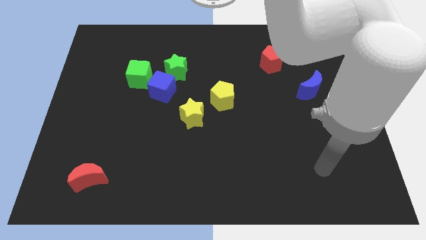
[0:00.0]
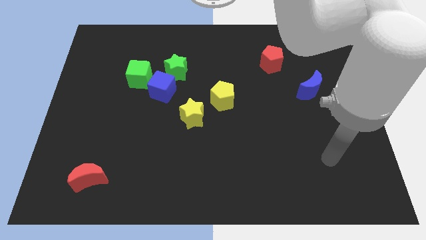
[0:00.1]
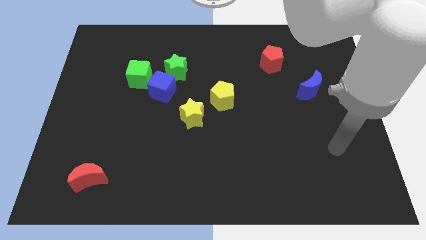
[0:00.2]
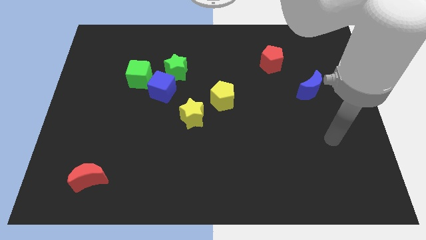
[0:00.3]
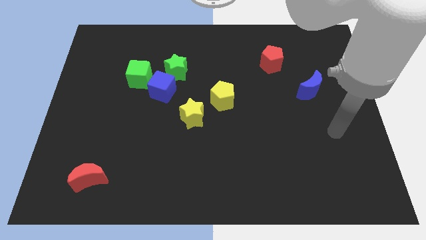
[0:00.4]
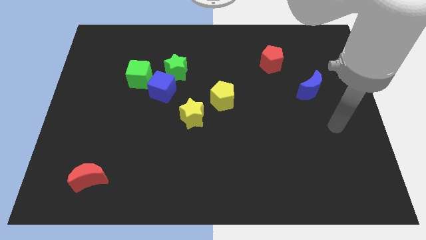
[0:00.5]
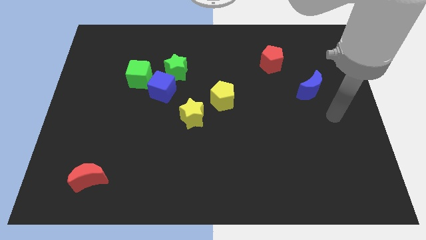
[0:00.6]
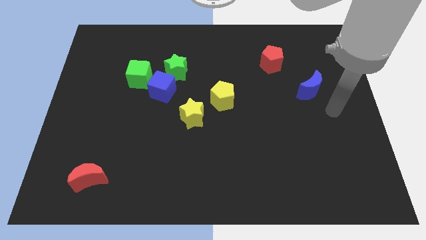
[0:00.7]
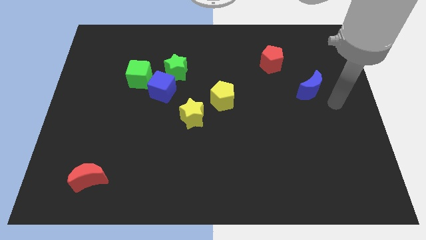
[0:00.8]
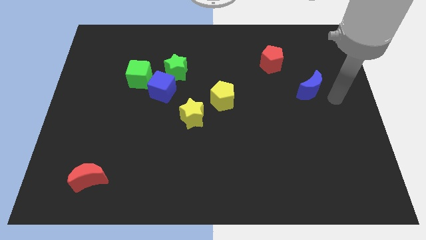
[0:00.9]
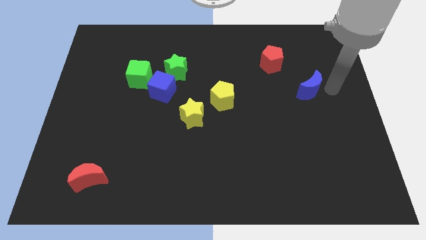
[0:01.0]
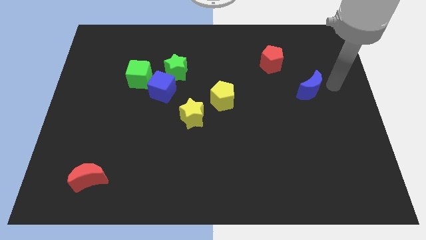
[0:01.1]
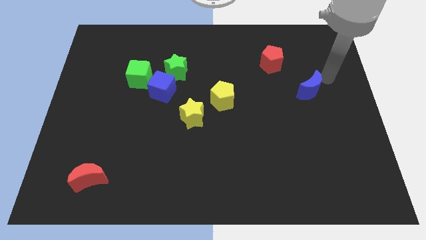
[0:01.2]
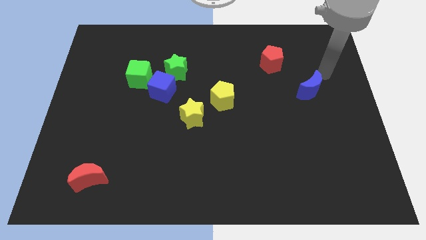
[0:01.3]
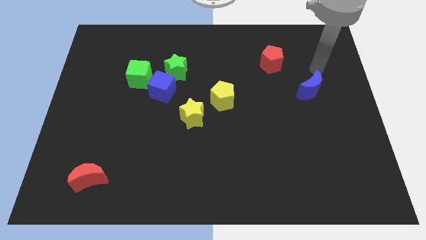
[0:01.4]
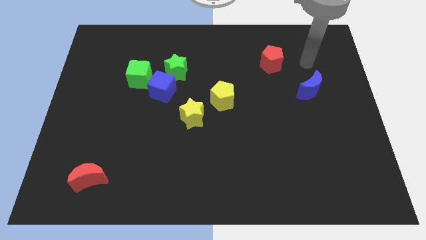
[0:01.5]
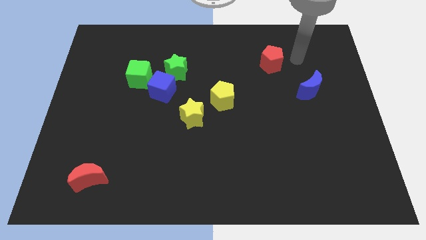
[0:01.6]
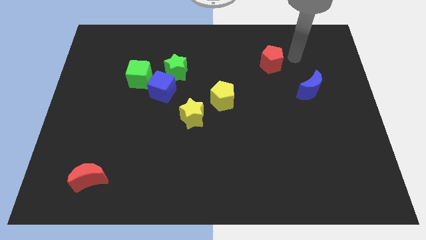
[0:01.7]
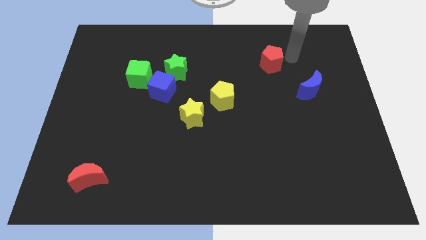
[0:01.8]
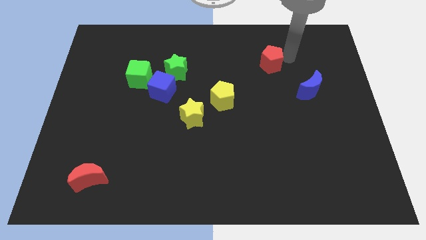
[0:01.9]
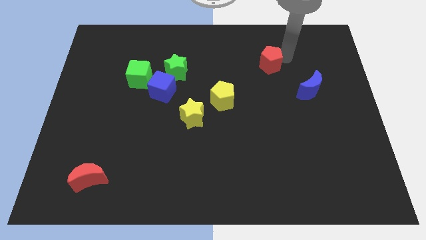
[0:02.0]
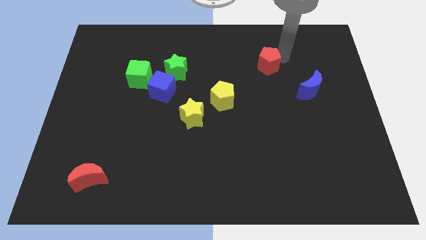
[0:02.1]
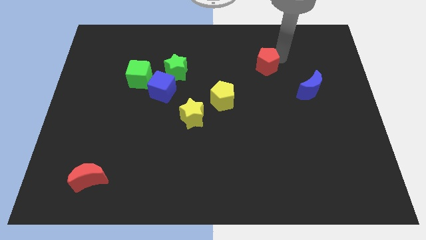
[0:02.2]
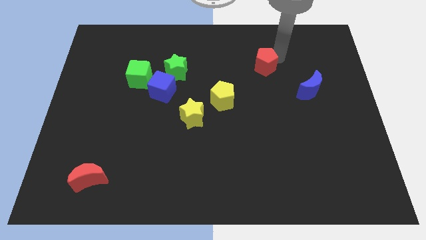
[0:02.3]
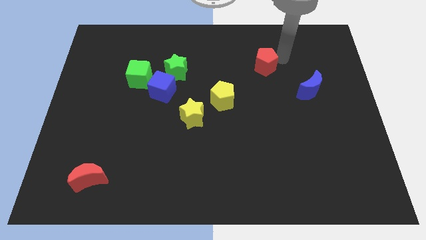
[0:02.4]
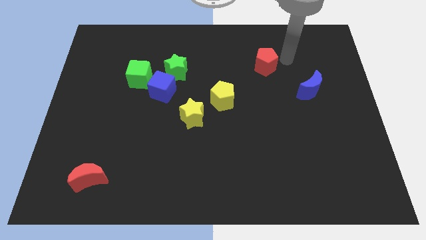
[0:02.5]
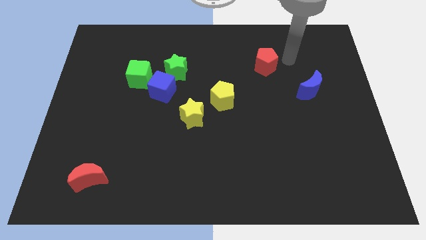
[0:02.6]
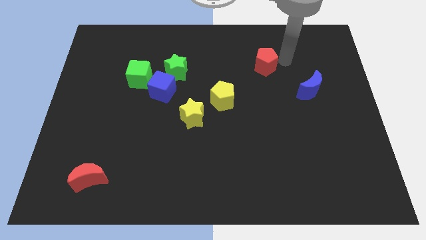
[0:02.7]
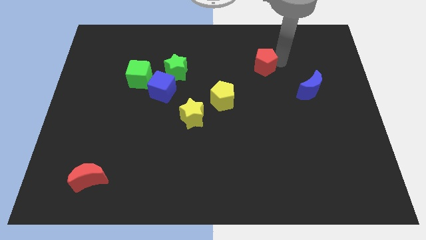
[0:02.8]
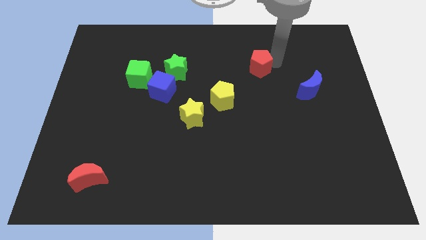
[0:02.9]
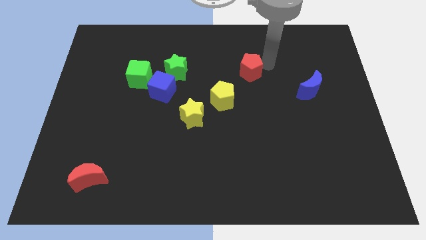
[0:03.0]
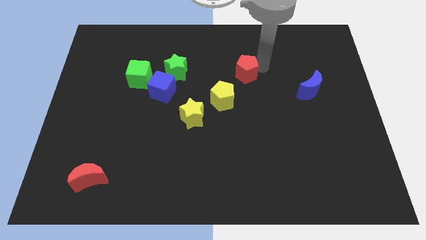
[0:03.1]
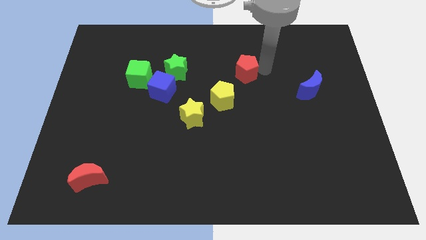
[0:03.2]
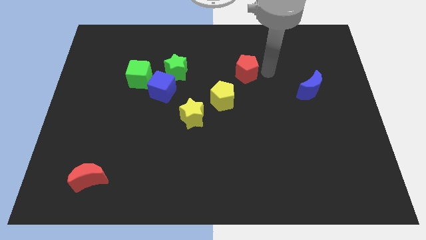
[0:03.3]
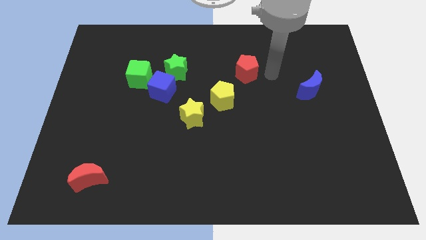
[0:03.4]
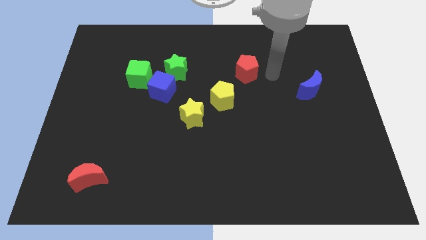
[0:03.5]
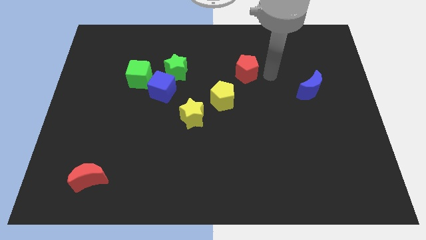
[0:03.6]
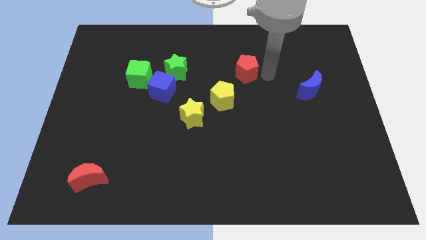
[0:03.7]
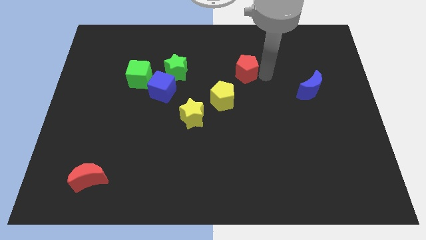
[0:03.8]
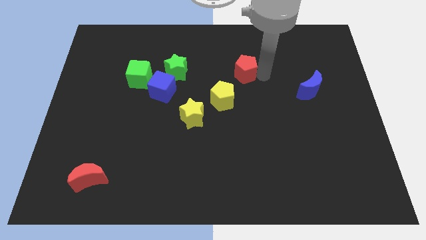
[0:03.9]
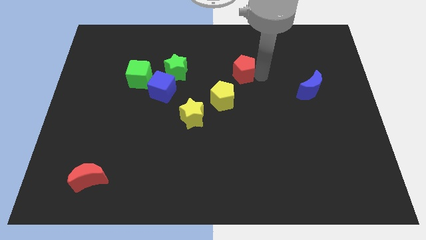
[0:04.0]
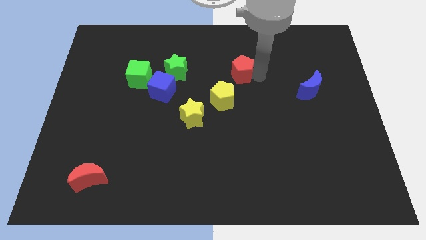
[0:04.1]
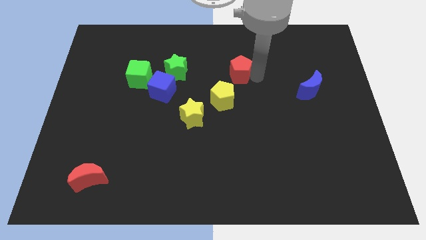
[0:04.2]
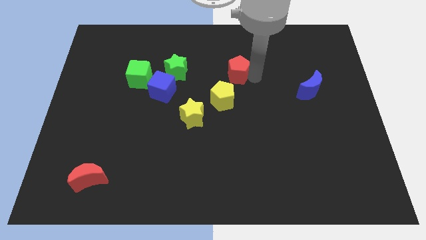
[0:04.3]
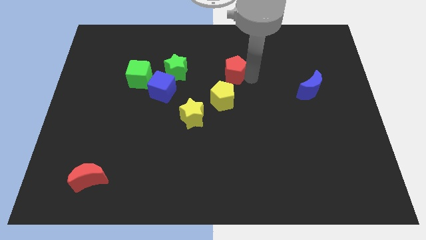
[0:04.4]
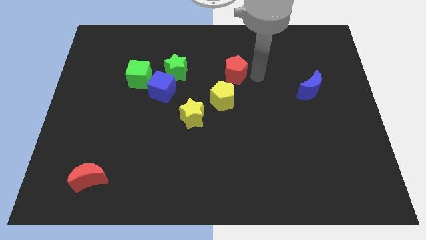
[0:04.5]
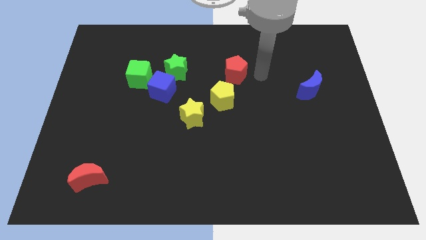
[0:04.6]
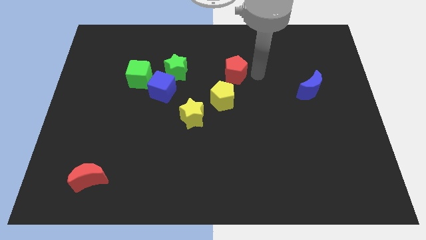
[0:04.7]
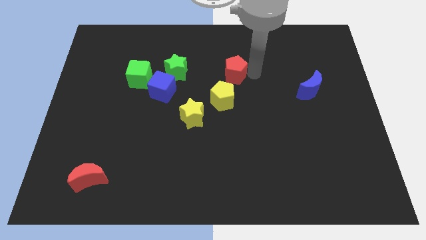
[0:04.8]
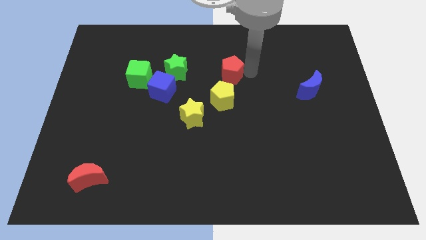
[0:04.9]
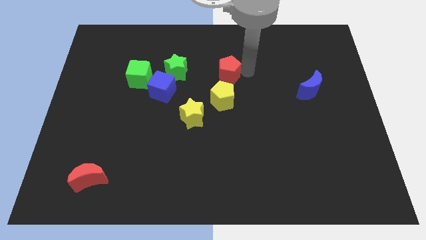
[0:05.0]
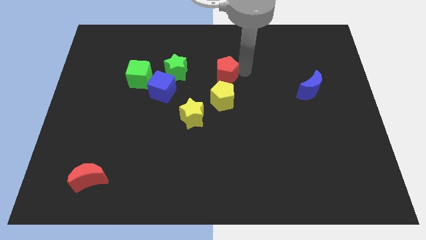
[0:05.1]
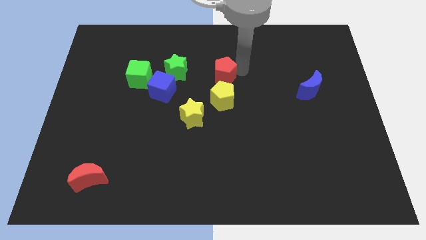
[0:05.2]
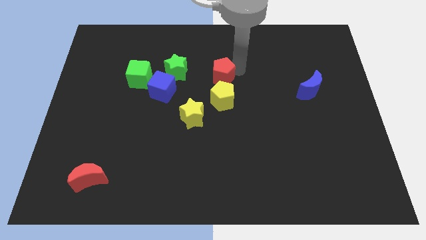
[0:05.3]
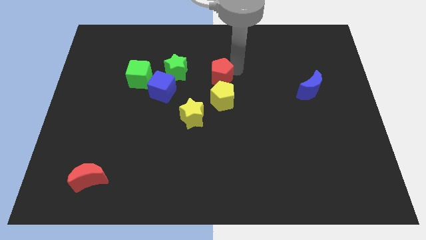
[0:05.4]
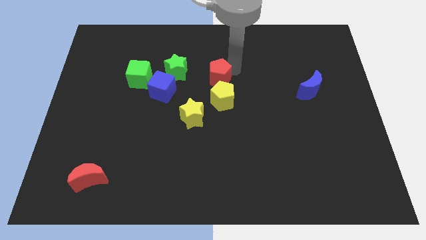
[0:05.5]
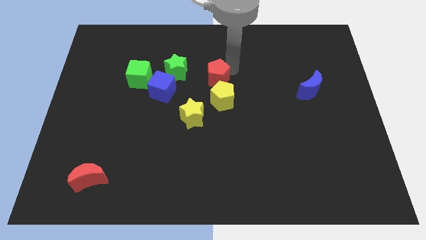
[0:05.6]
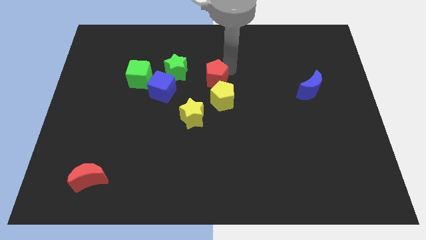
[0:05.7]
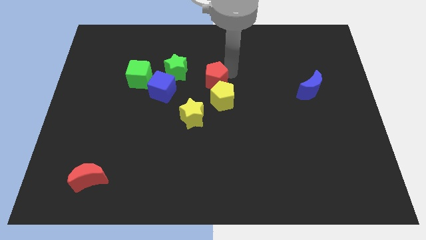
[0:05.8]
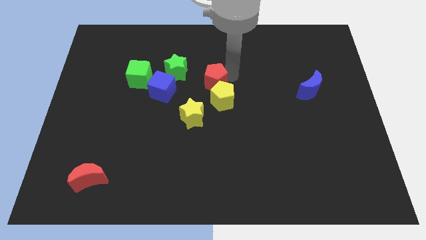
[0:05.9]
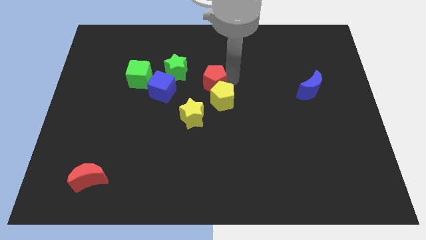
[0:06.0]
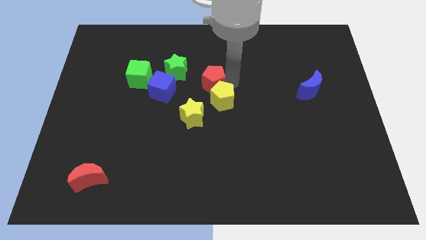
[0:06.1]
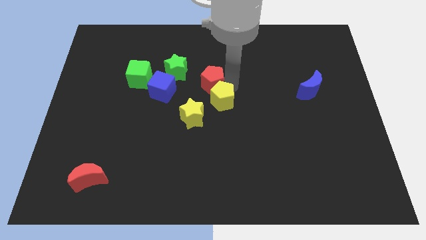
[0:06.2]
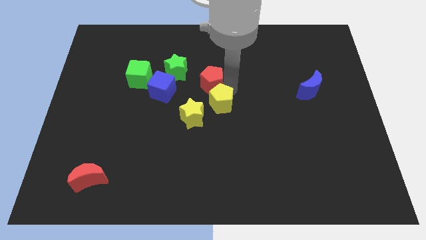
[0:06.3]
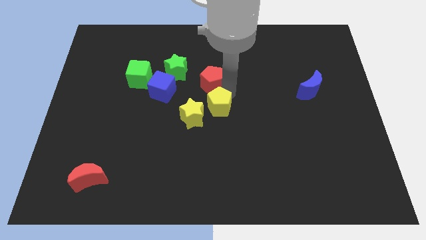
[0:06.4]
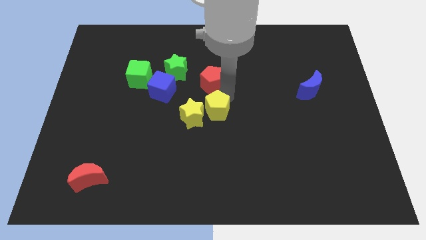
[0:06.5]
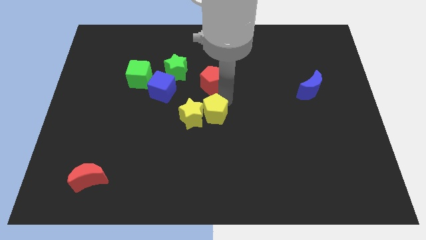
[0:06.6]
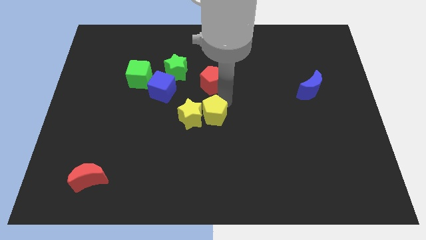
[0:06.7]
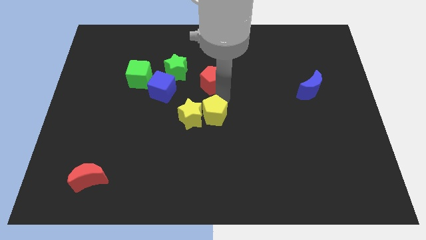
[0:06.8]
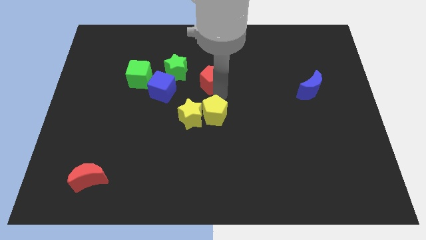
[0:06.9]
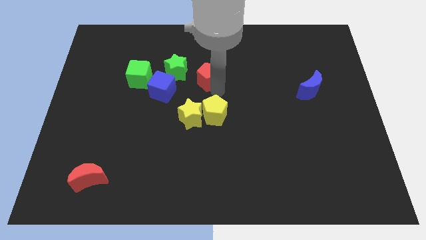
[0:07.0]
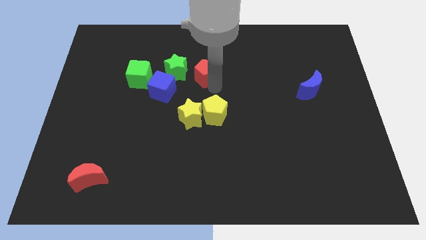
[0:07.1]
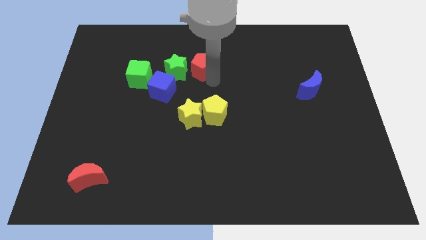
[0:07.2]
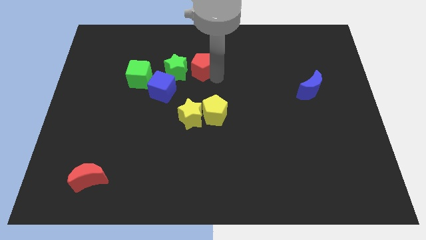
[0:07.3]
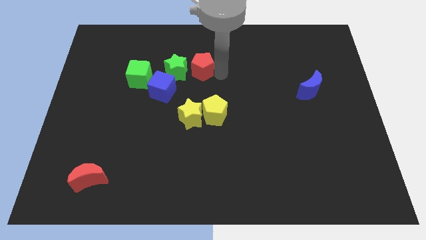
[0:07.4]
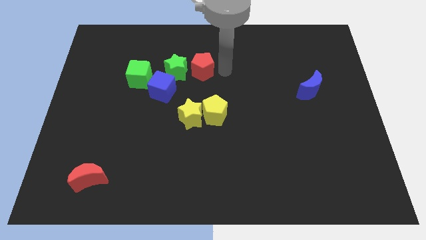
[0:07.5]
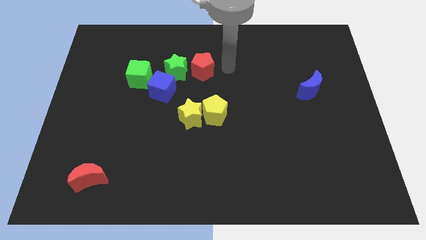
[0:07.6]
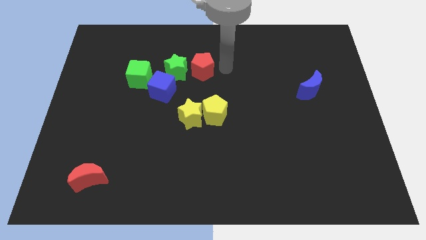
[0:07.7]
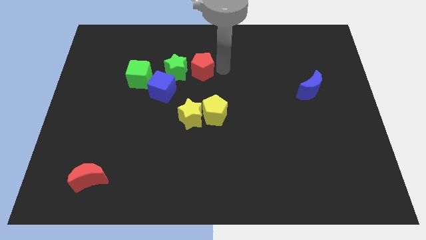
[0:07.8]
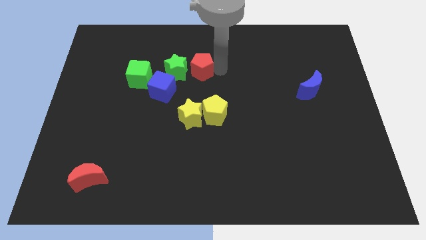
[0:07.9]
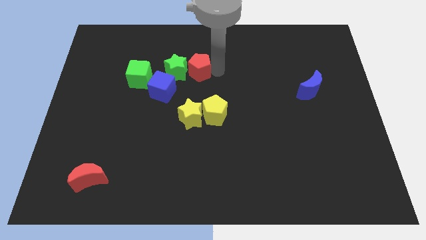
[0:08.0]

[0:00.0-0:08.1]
put the red pentagon towards the green star
